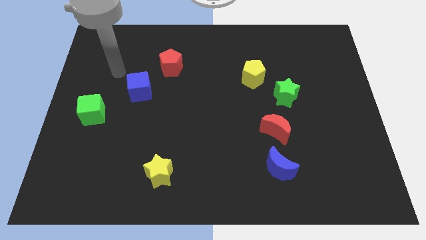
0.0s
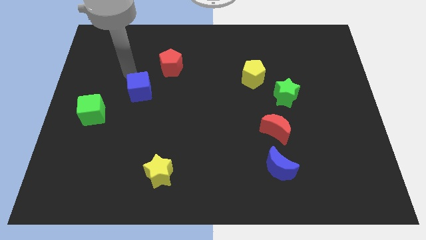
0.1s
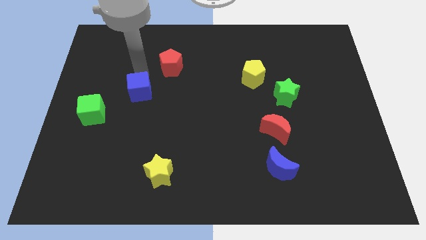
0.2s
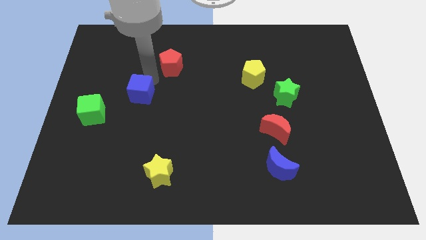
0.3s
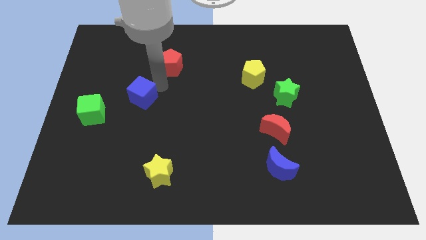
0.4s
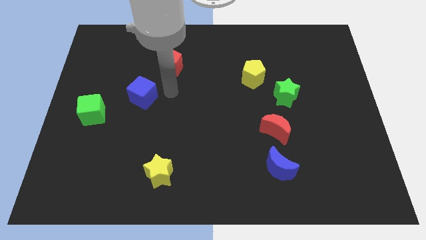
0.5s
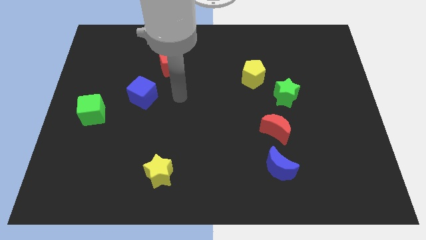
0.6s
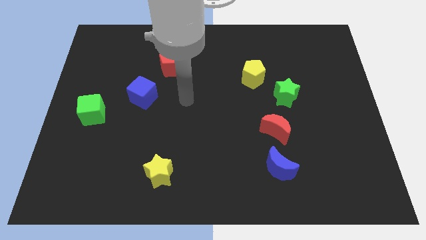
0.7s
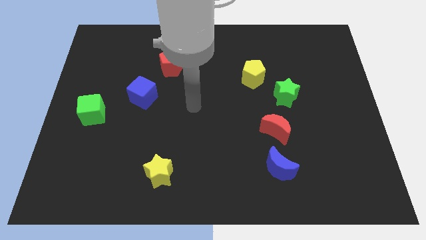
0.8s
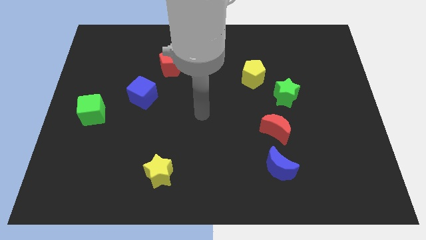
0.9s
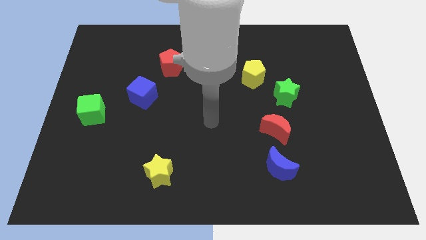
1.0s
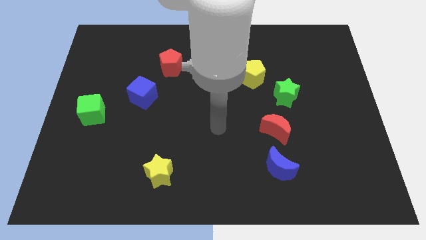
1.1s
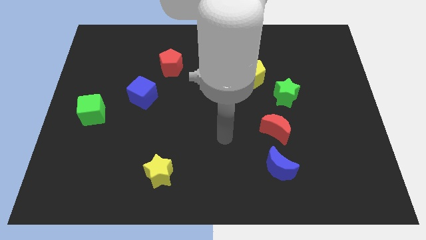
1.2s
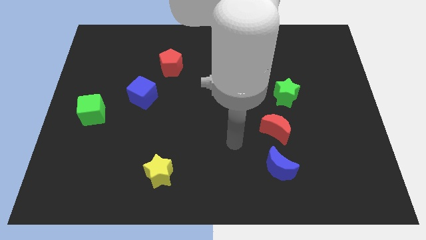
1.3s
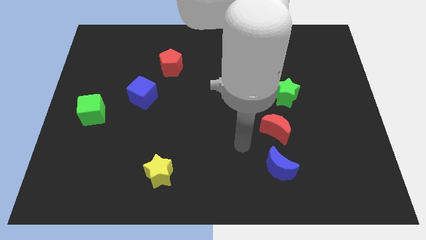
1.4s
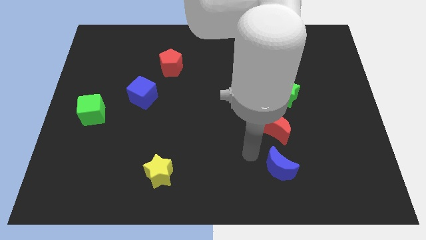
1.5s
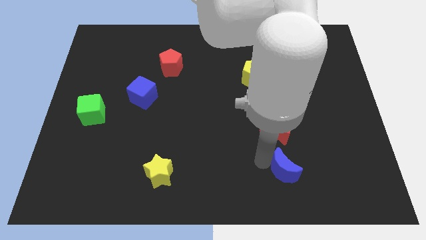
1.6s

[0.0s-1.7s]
move the red moon away from the blue moon

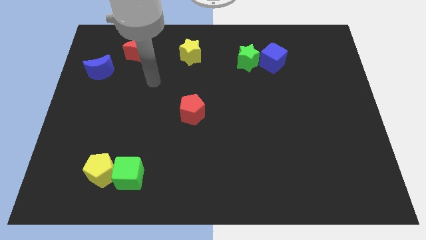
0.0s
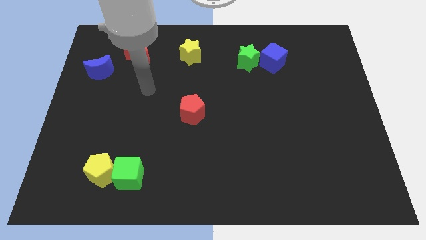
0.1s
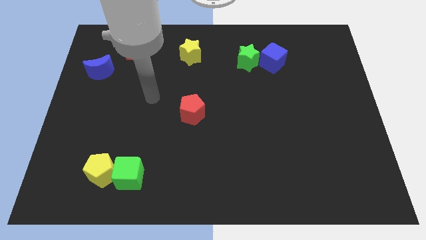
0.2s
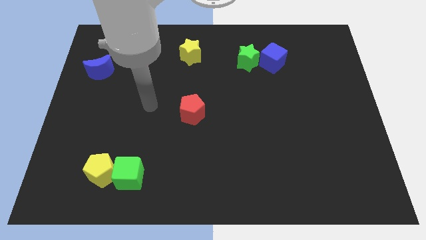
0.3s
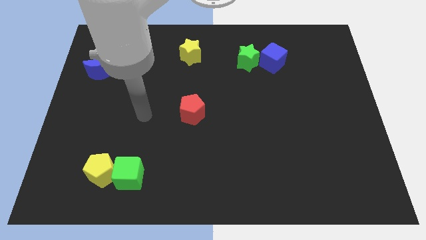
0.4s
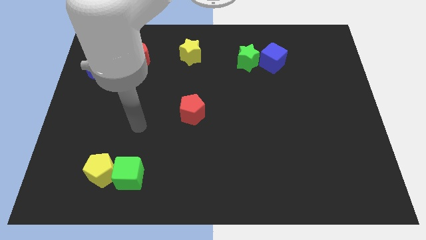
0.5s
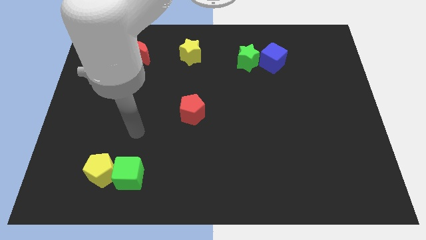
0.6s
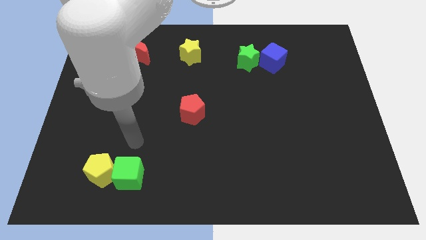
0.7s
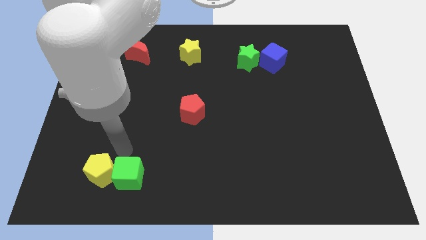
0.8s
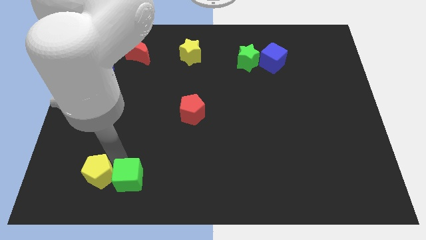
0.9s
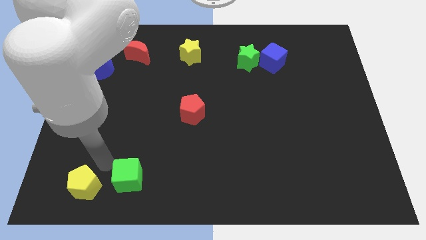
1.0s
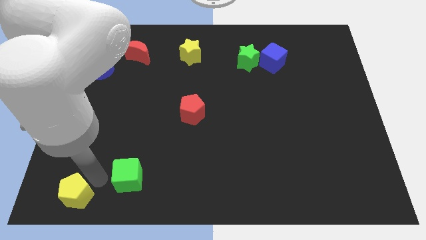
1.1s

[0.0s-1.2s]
move the green cube away from the yellow pentagon

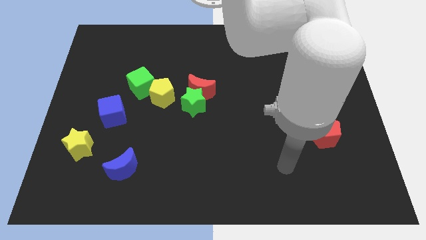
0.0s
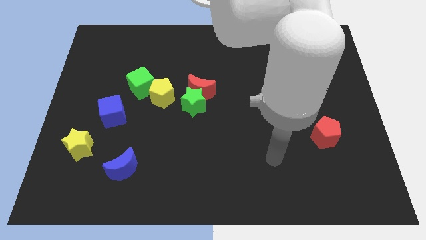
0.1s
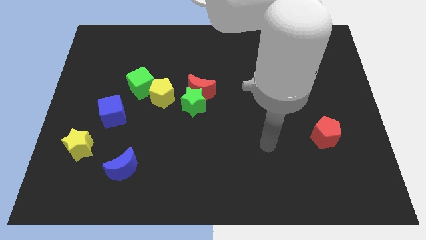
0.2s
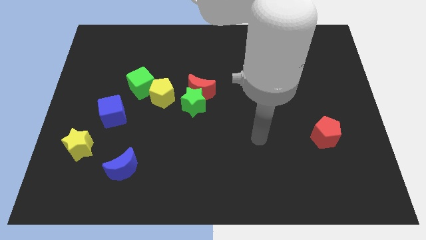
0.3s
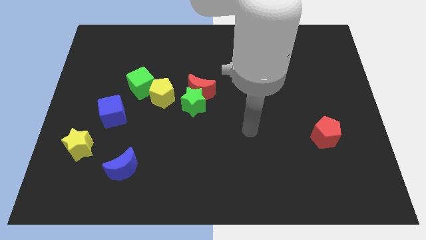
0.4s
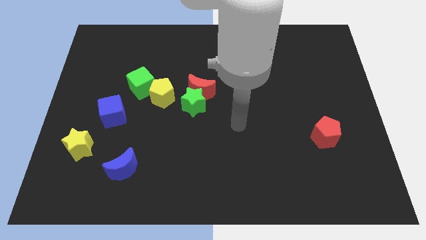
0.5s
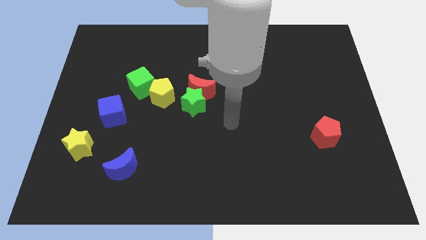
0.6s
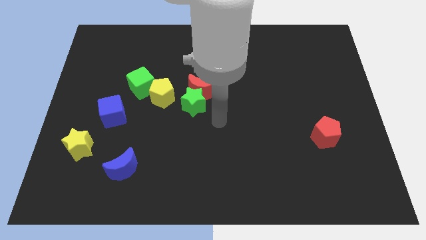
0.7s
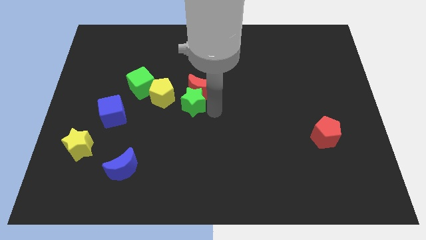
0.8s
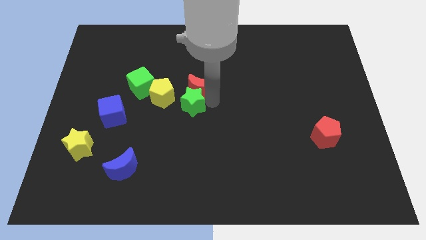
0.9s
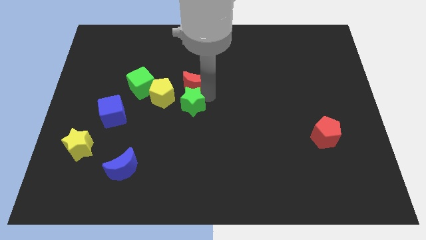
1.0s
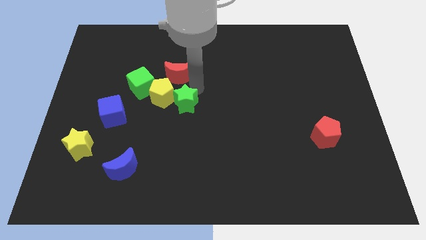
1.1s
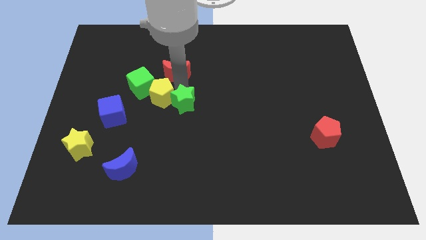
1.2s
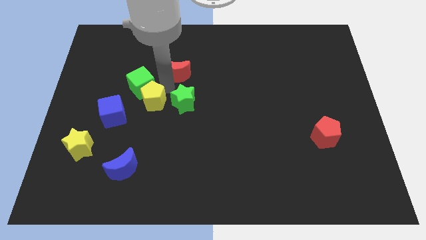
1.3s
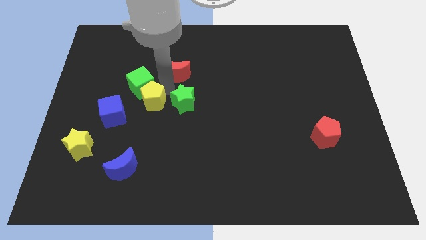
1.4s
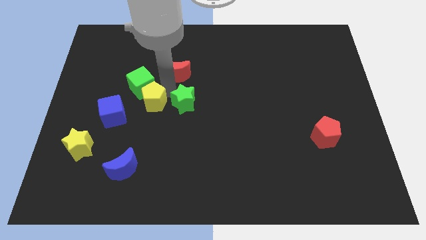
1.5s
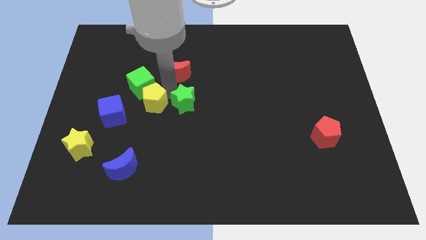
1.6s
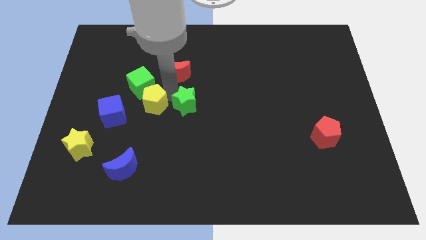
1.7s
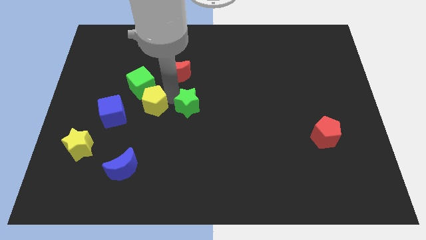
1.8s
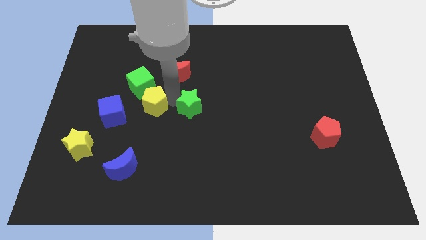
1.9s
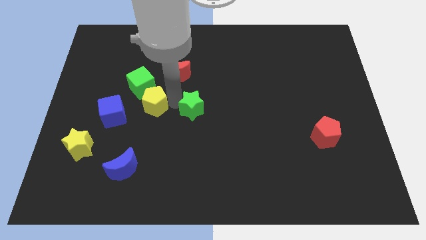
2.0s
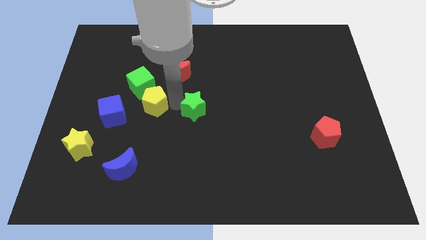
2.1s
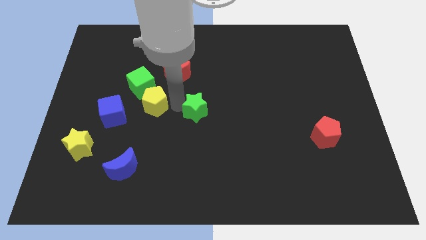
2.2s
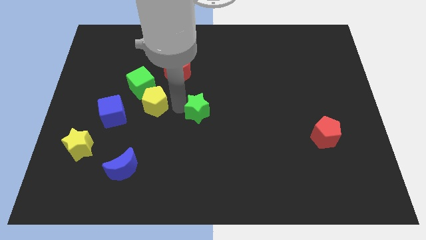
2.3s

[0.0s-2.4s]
move the green star away from the red moon and yellow pentagon

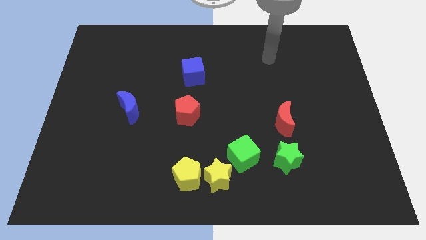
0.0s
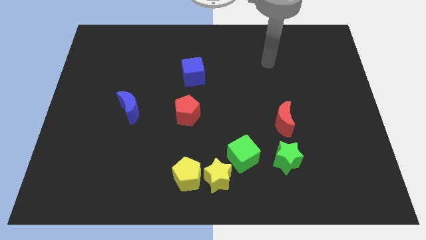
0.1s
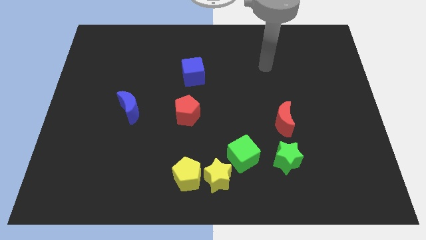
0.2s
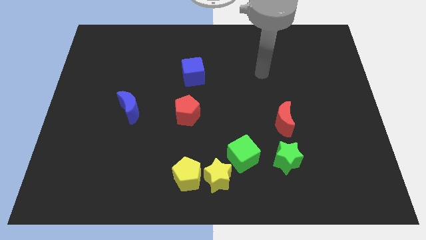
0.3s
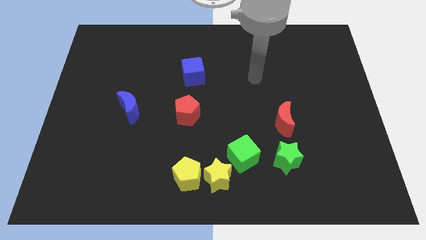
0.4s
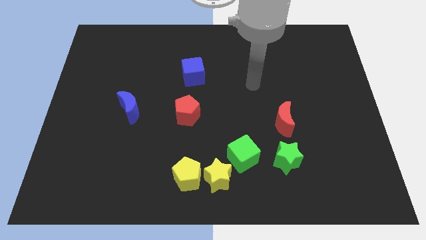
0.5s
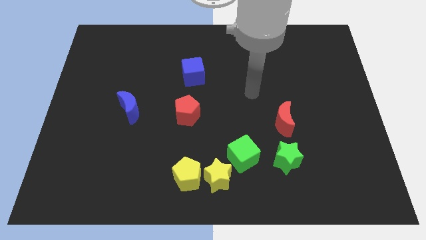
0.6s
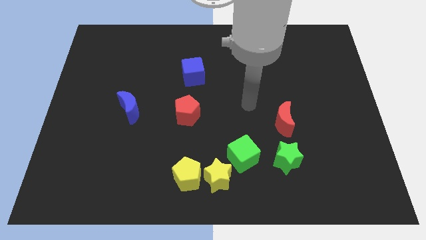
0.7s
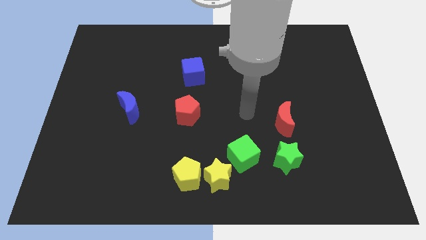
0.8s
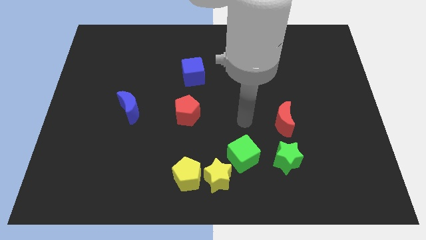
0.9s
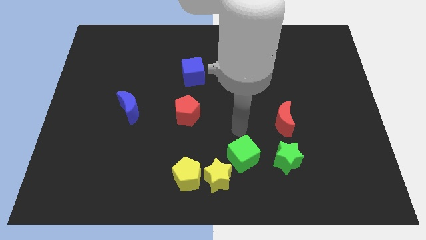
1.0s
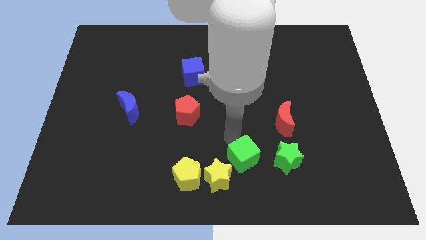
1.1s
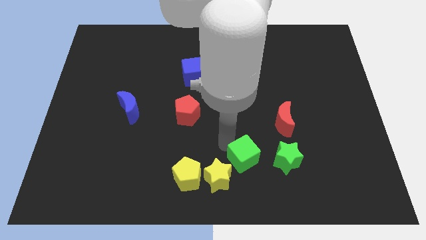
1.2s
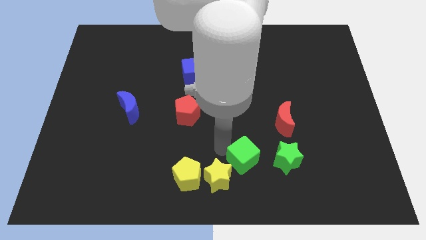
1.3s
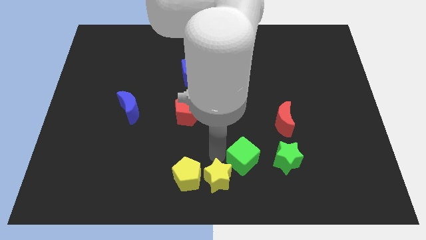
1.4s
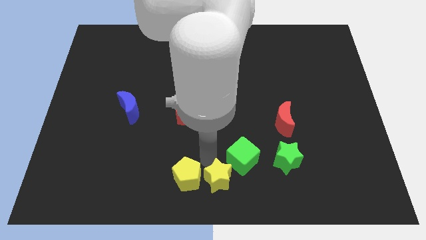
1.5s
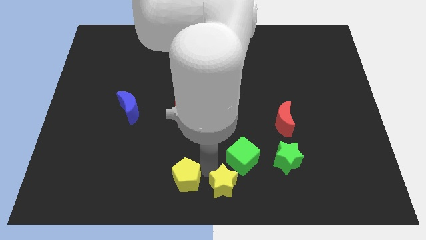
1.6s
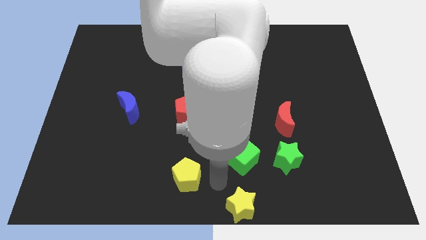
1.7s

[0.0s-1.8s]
move the yellow pentagon away from the yellow star

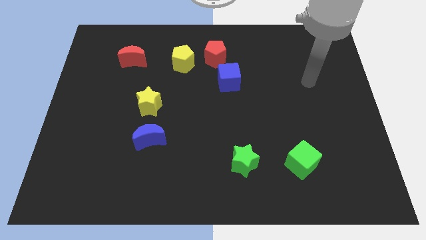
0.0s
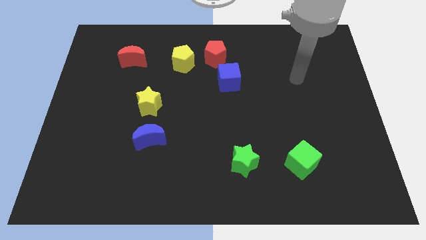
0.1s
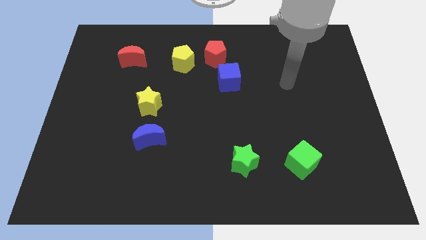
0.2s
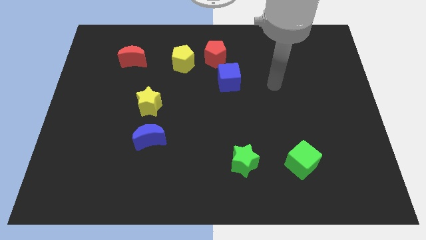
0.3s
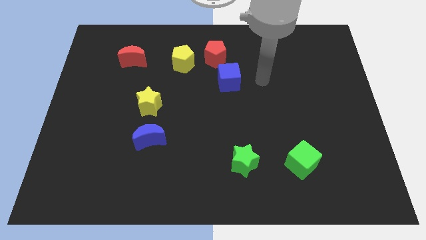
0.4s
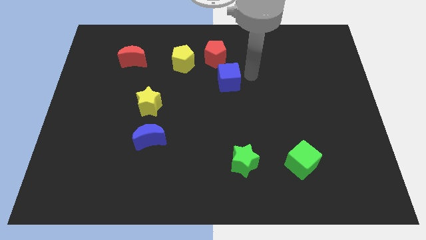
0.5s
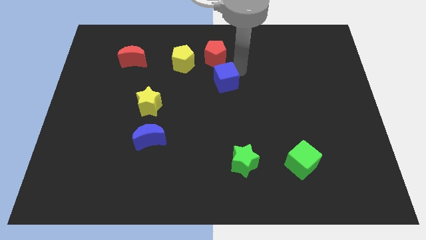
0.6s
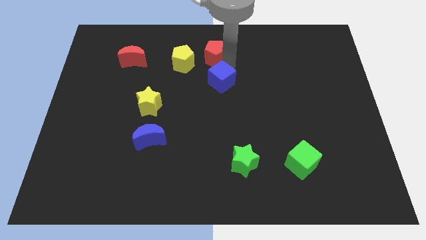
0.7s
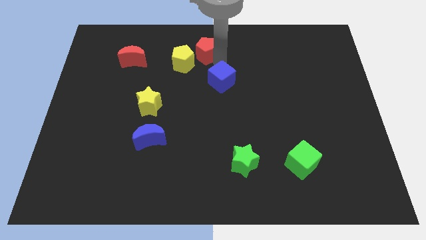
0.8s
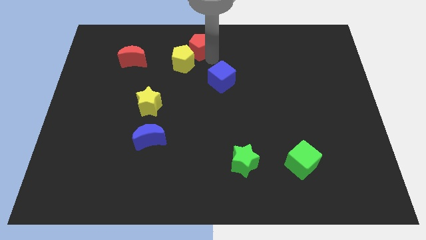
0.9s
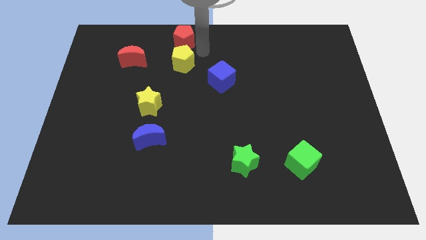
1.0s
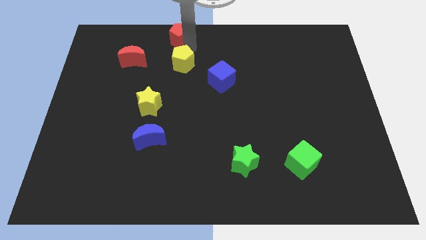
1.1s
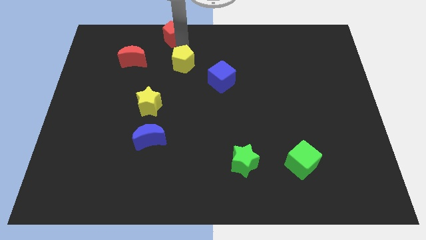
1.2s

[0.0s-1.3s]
pull the yellow pentagon apart from the red pentagon

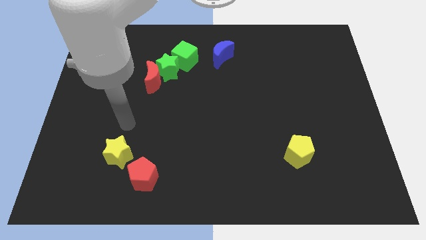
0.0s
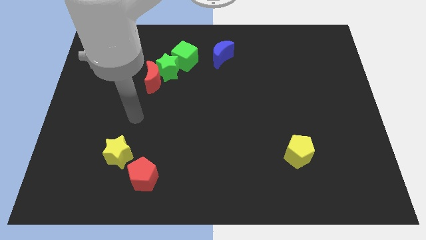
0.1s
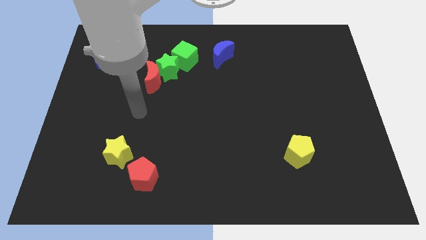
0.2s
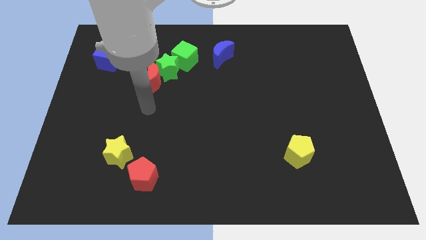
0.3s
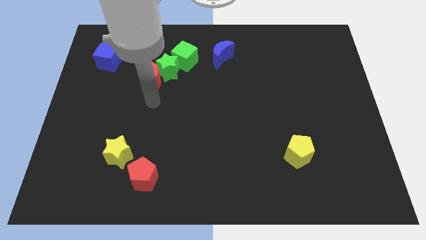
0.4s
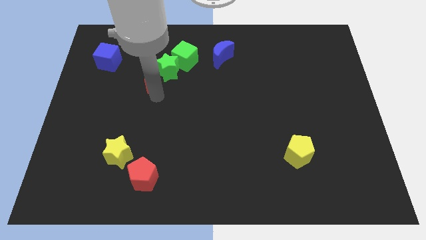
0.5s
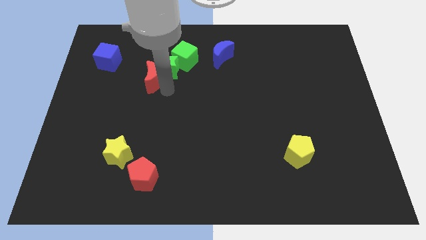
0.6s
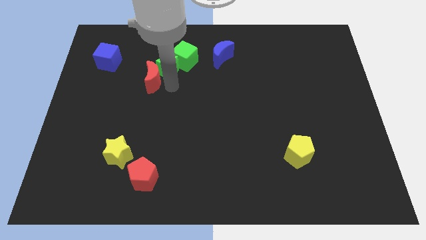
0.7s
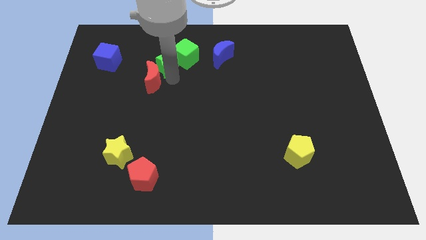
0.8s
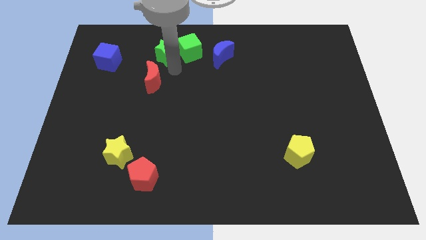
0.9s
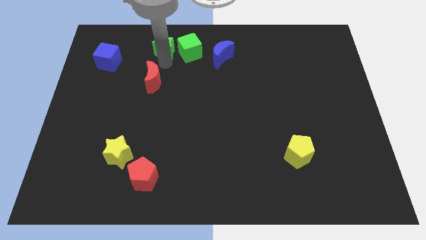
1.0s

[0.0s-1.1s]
pull the red moon apart from the green star
